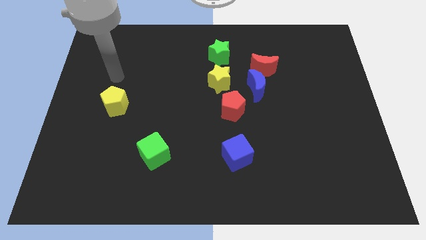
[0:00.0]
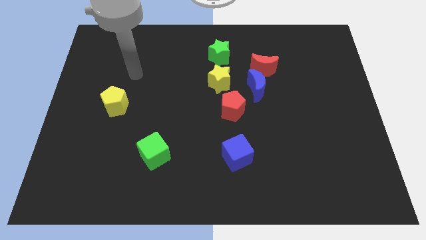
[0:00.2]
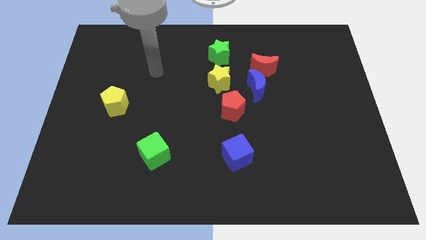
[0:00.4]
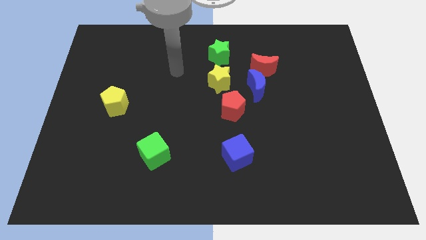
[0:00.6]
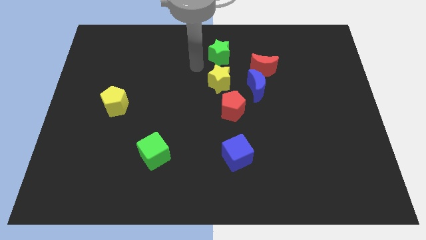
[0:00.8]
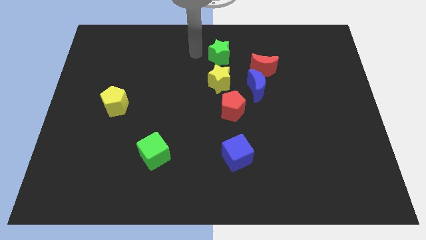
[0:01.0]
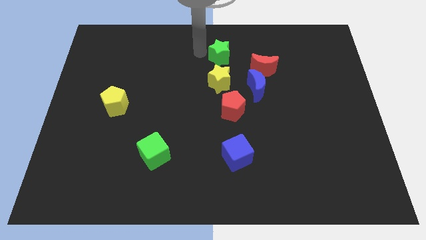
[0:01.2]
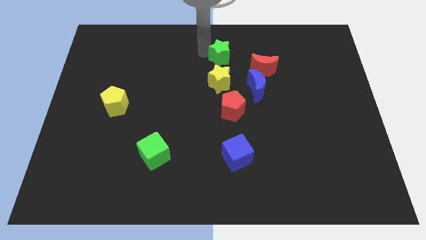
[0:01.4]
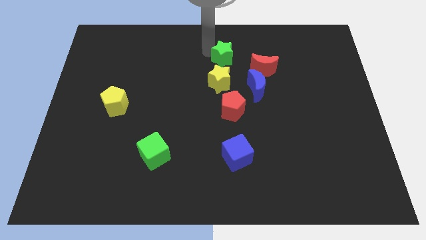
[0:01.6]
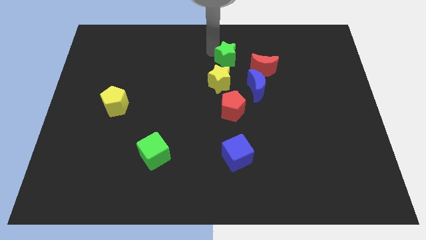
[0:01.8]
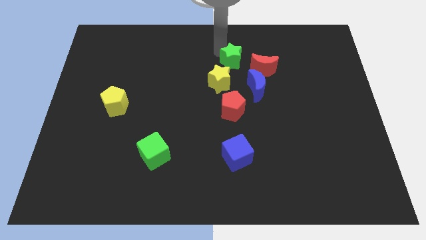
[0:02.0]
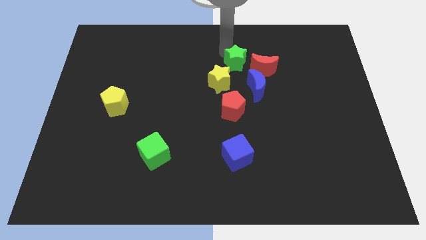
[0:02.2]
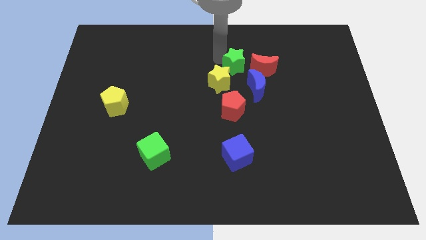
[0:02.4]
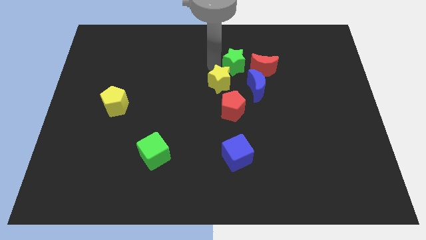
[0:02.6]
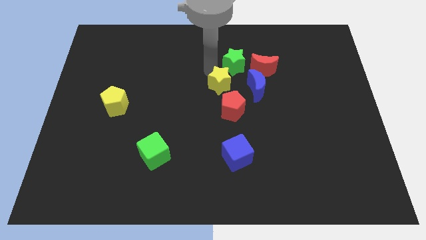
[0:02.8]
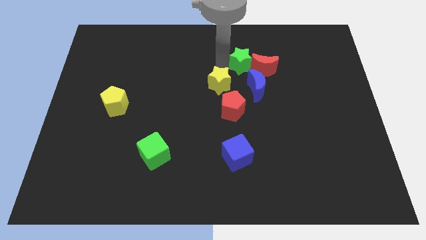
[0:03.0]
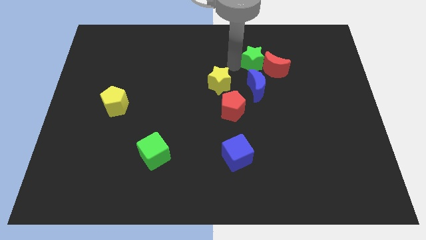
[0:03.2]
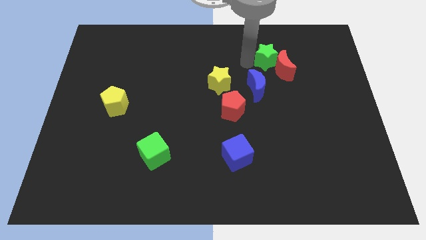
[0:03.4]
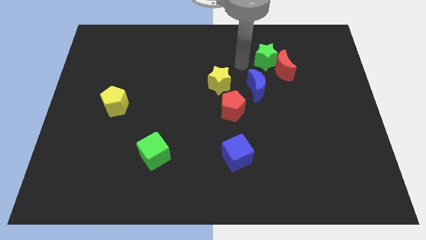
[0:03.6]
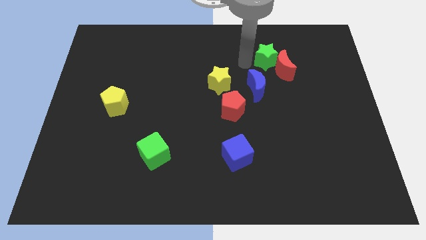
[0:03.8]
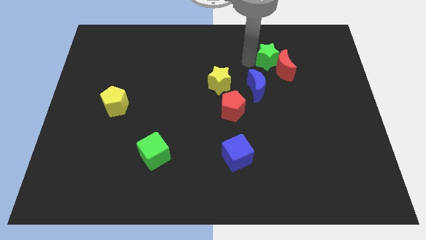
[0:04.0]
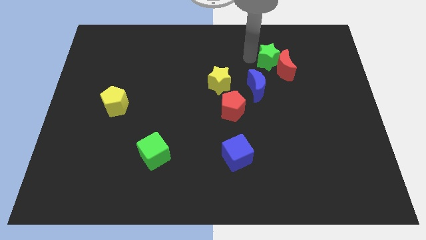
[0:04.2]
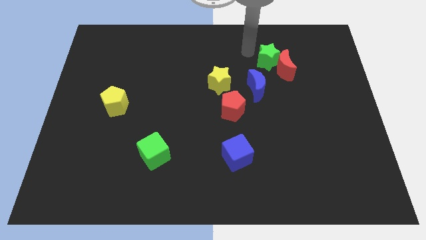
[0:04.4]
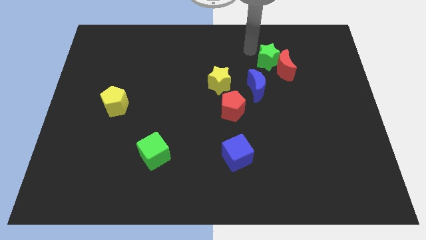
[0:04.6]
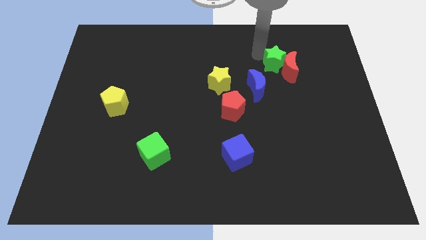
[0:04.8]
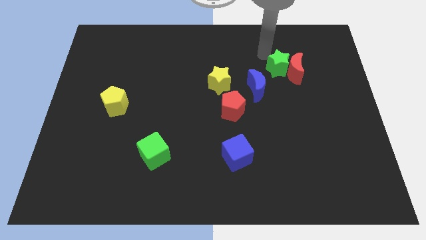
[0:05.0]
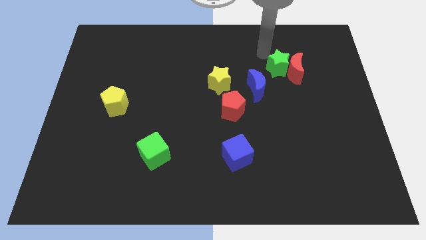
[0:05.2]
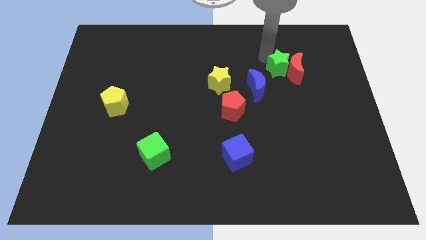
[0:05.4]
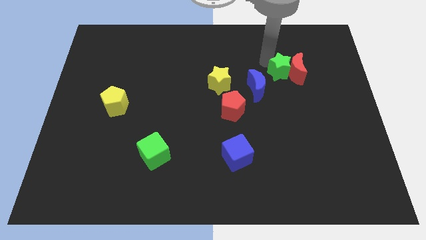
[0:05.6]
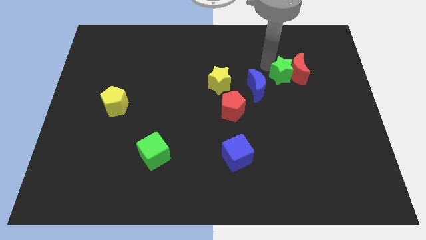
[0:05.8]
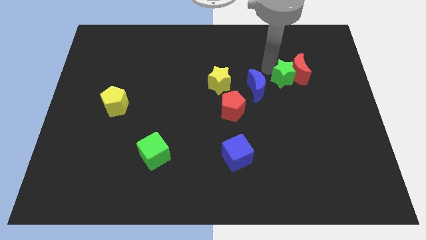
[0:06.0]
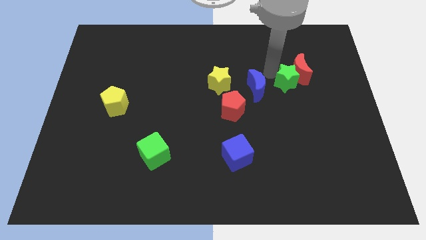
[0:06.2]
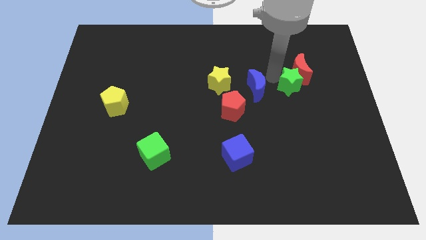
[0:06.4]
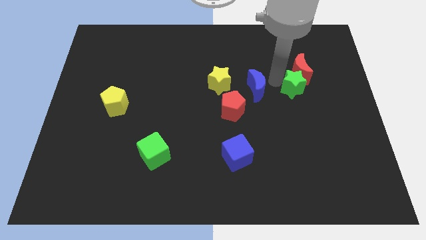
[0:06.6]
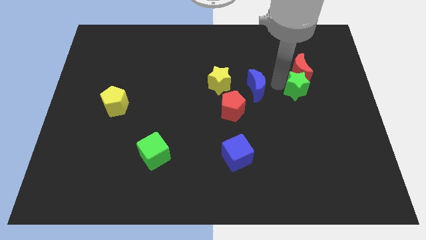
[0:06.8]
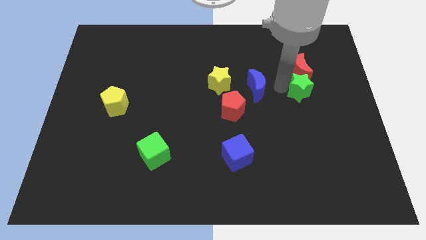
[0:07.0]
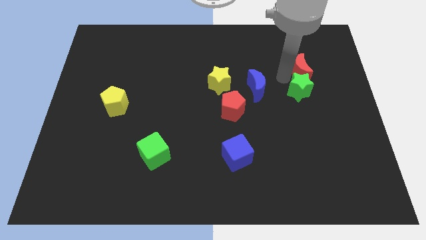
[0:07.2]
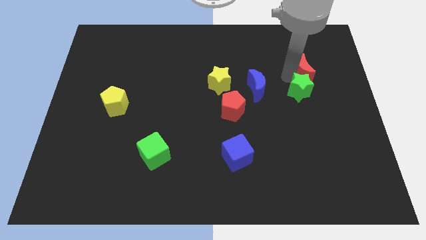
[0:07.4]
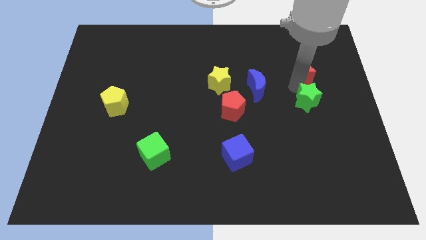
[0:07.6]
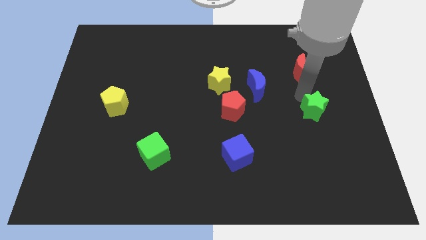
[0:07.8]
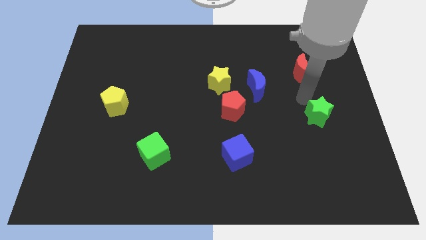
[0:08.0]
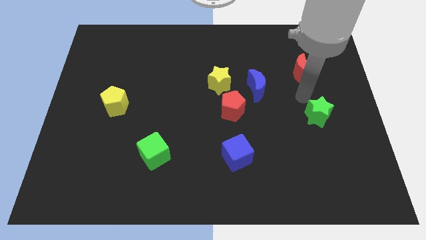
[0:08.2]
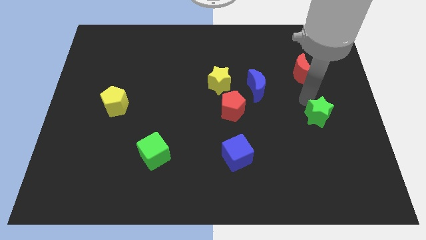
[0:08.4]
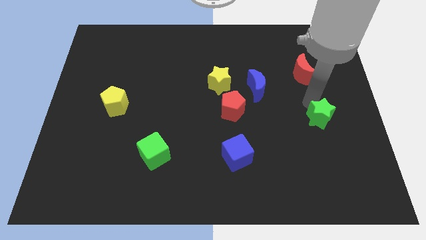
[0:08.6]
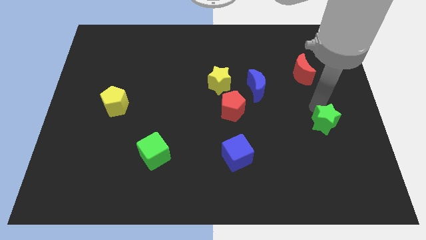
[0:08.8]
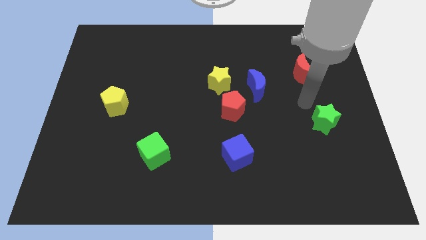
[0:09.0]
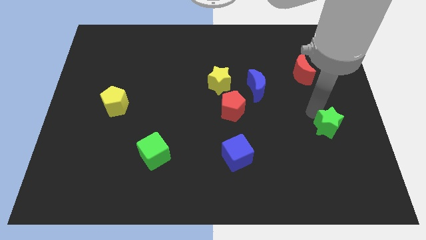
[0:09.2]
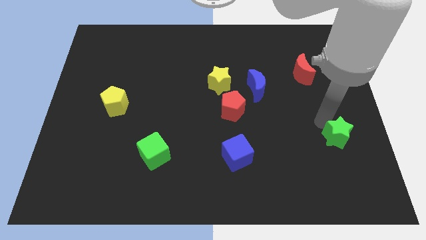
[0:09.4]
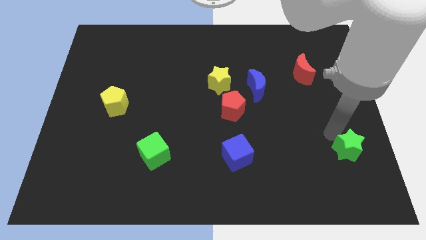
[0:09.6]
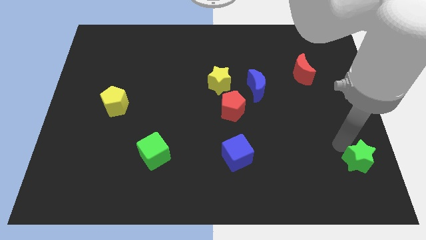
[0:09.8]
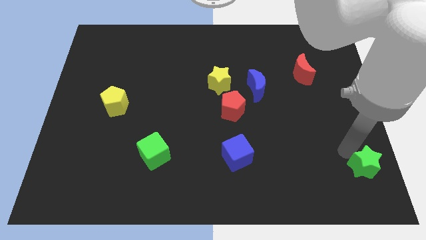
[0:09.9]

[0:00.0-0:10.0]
move the green star to the bottom right of the board

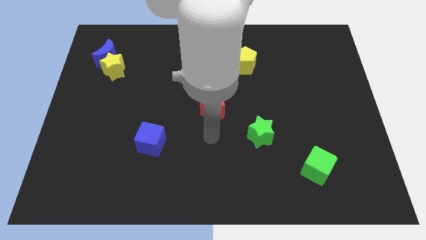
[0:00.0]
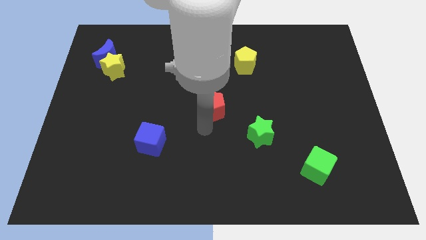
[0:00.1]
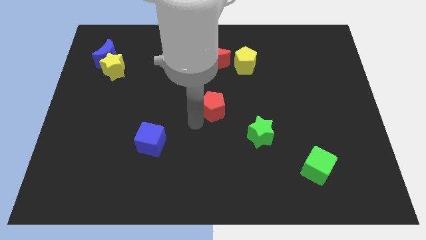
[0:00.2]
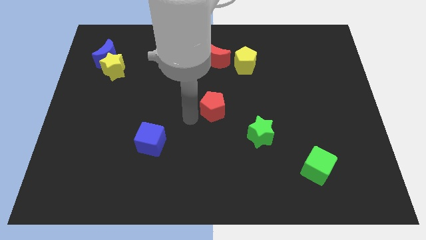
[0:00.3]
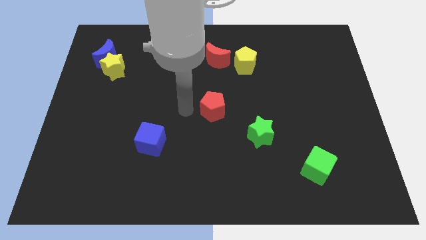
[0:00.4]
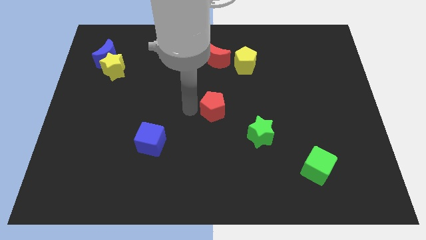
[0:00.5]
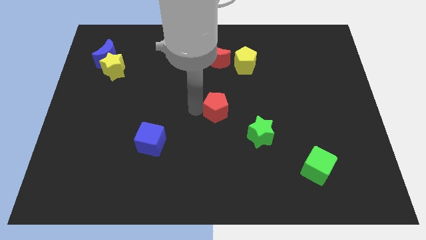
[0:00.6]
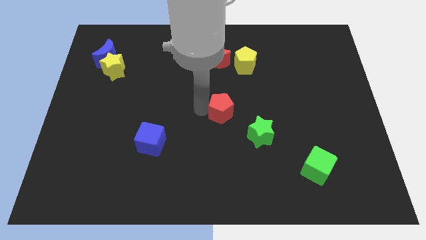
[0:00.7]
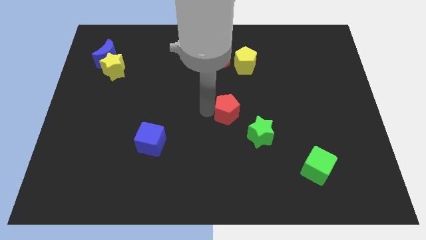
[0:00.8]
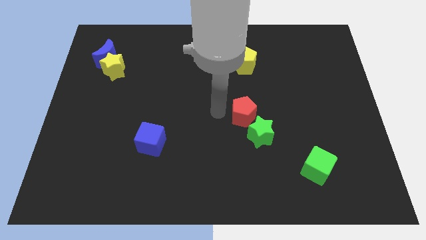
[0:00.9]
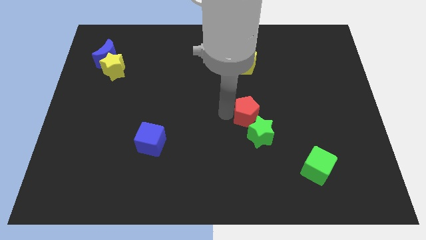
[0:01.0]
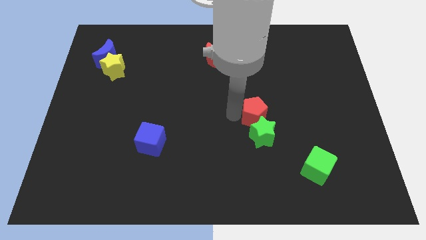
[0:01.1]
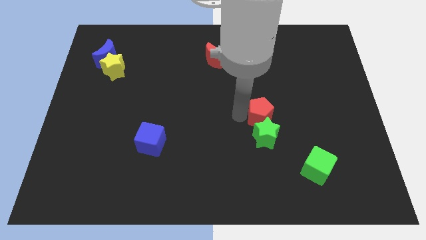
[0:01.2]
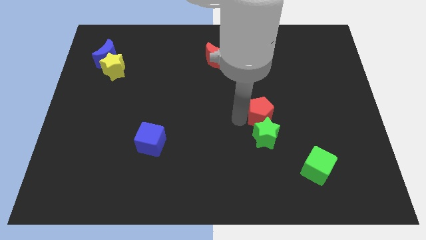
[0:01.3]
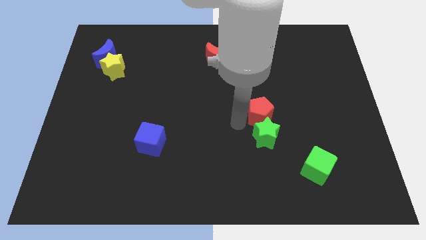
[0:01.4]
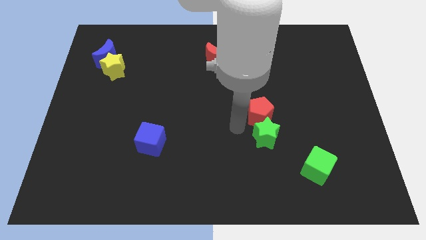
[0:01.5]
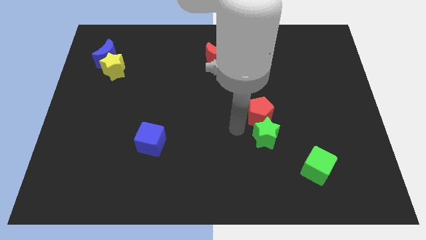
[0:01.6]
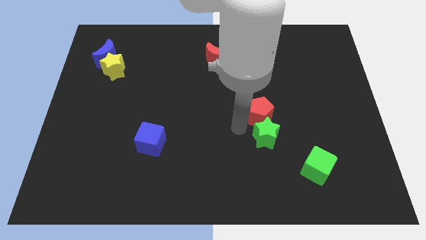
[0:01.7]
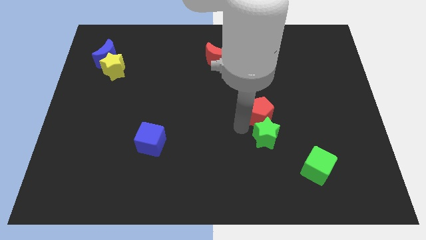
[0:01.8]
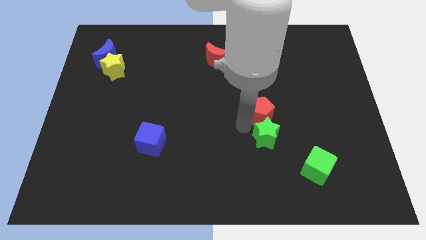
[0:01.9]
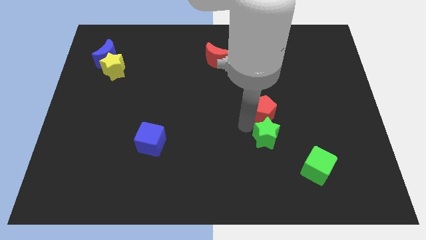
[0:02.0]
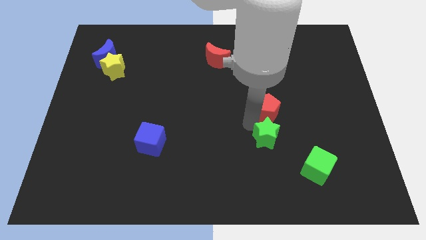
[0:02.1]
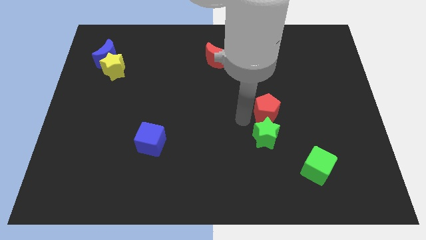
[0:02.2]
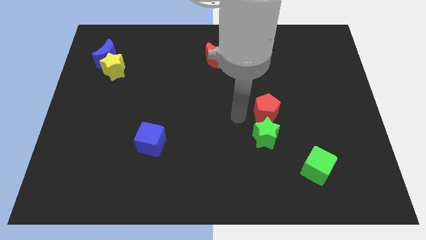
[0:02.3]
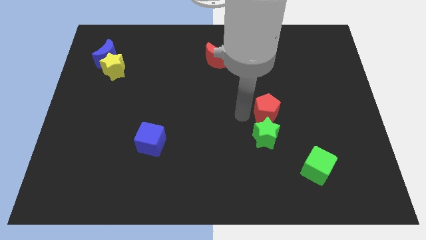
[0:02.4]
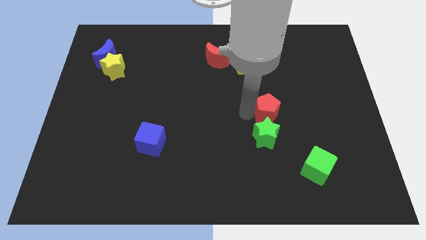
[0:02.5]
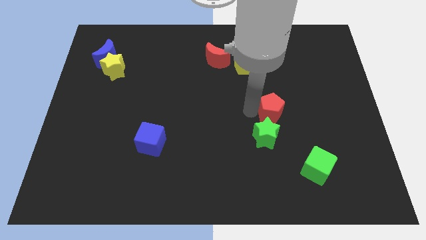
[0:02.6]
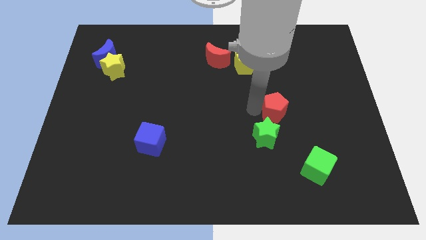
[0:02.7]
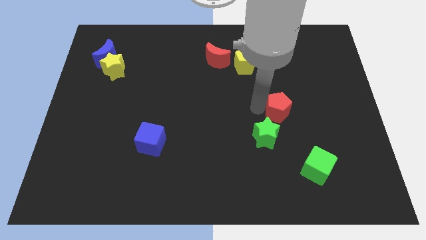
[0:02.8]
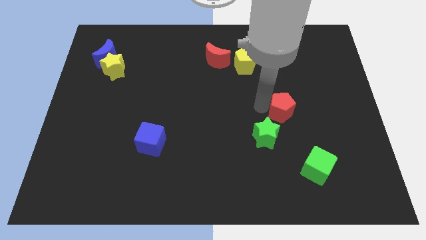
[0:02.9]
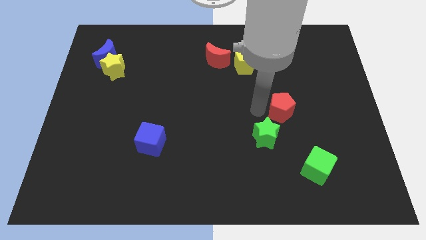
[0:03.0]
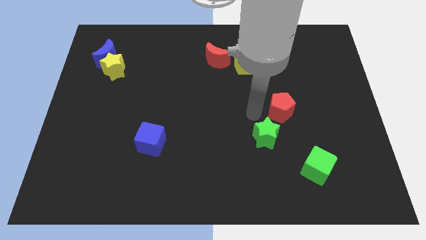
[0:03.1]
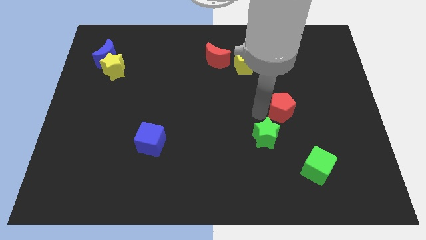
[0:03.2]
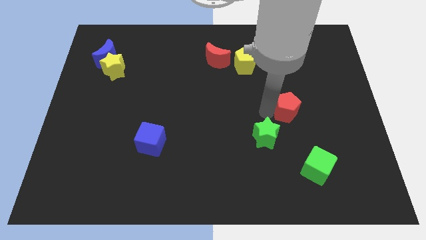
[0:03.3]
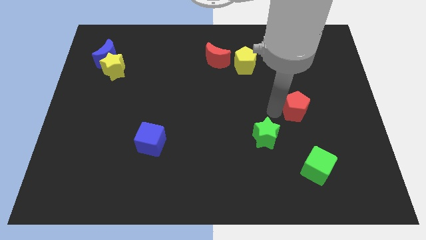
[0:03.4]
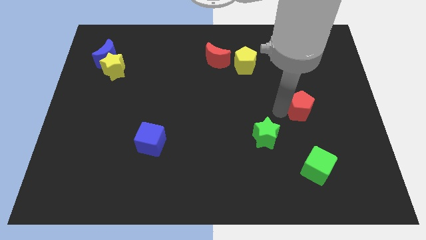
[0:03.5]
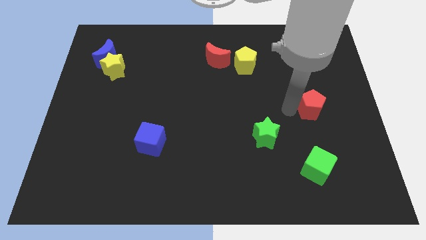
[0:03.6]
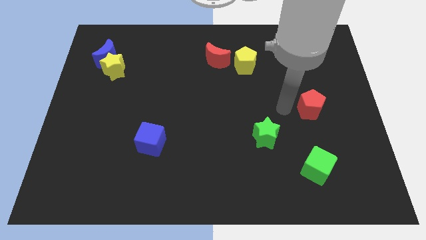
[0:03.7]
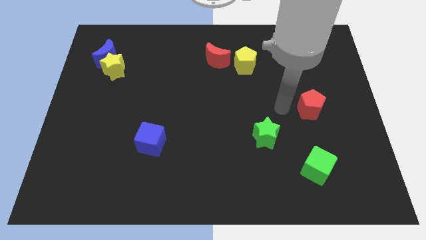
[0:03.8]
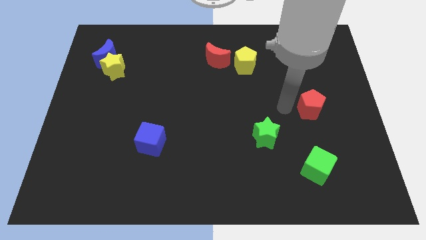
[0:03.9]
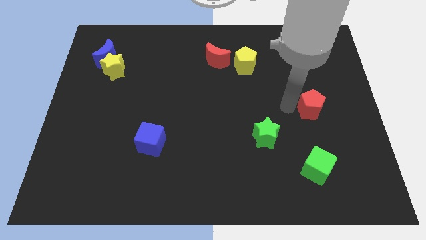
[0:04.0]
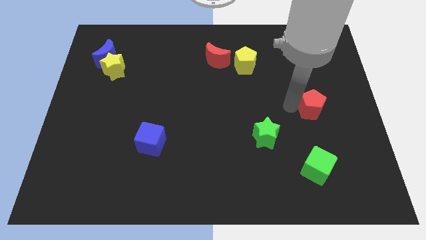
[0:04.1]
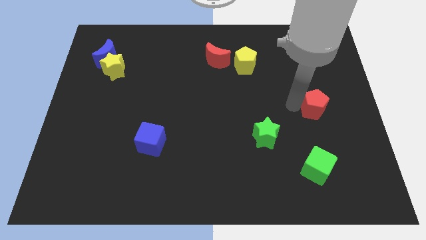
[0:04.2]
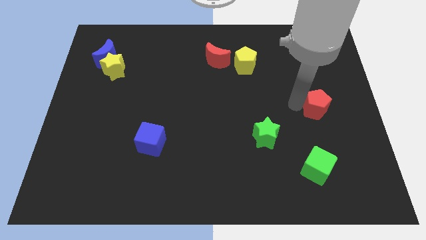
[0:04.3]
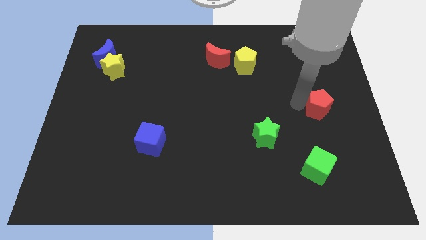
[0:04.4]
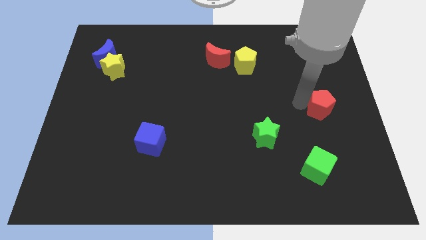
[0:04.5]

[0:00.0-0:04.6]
move the red pentagon to the right side of the board
